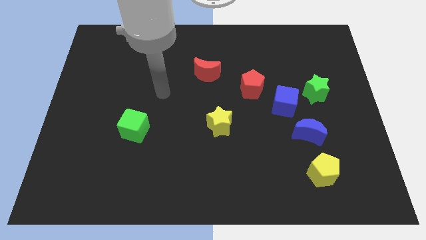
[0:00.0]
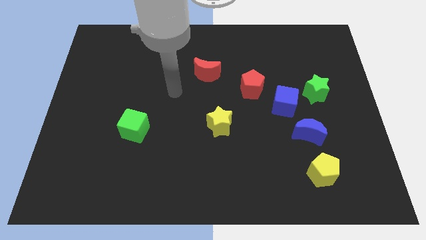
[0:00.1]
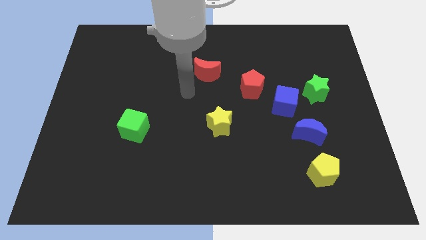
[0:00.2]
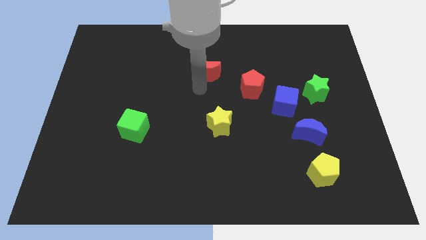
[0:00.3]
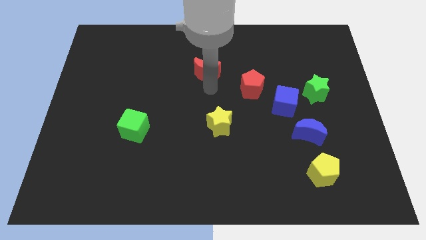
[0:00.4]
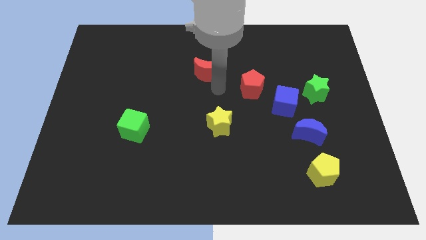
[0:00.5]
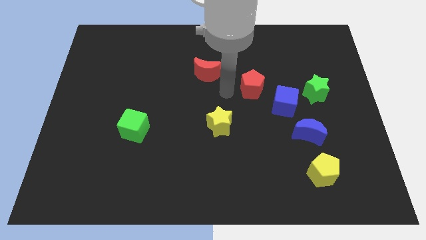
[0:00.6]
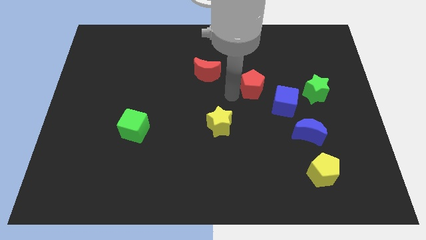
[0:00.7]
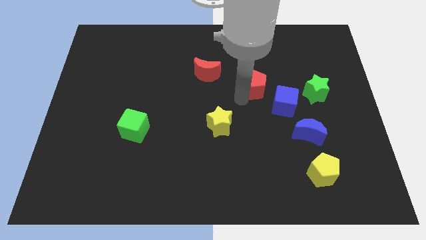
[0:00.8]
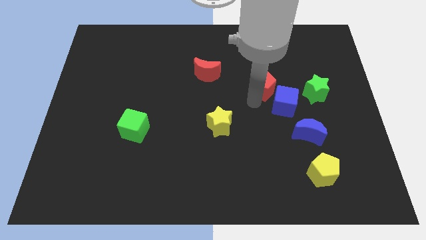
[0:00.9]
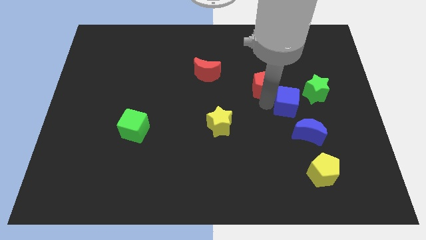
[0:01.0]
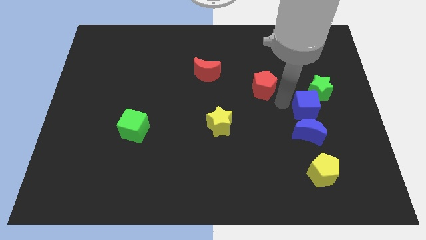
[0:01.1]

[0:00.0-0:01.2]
pull the red pentagon apart from the blue cube

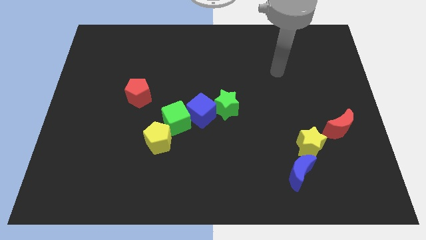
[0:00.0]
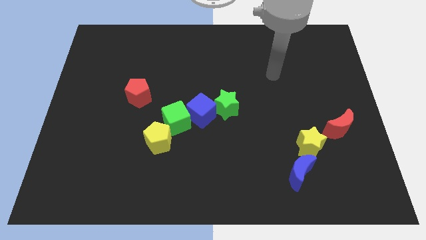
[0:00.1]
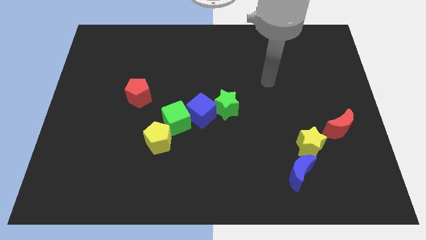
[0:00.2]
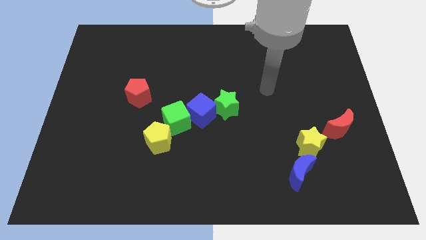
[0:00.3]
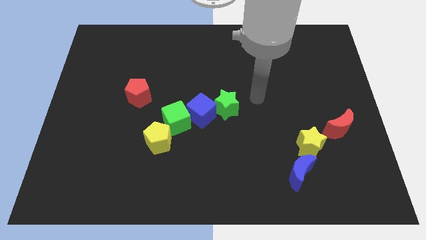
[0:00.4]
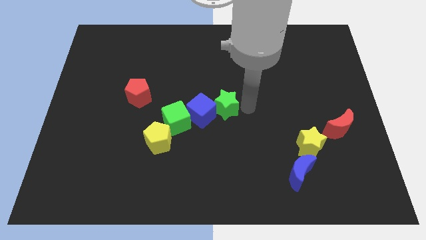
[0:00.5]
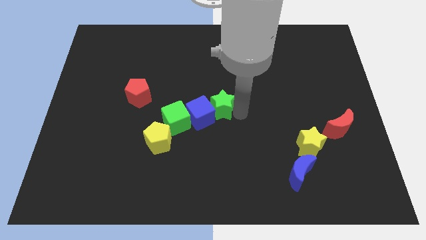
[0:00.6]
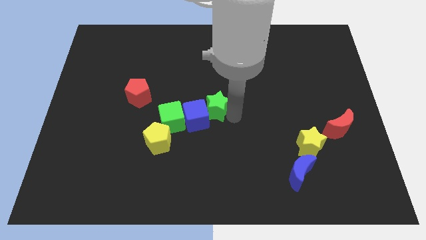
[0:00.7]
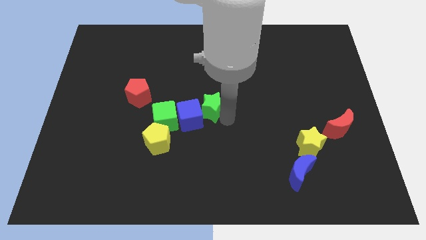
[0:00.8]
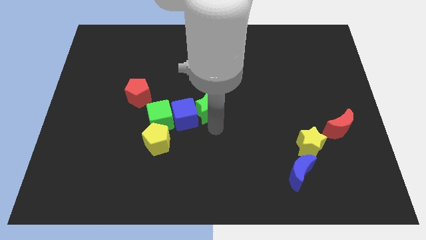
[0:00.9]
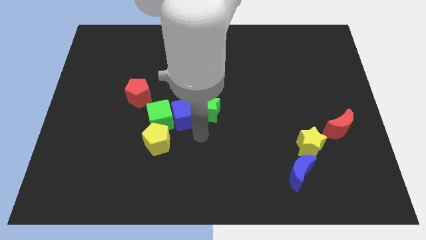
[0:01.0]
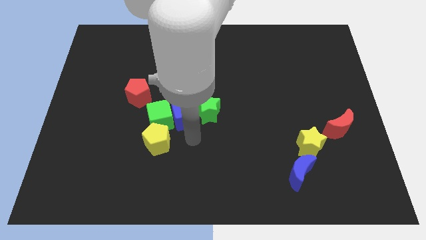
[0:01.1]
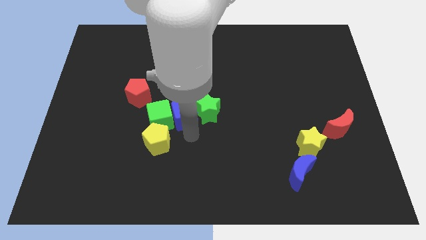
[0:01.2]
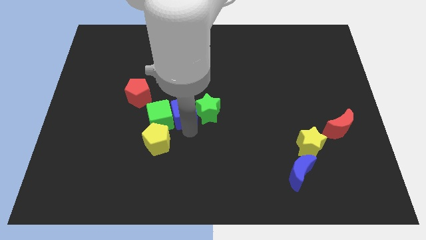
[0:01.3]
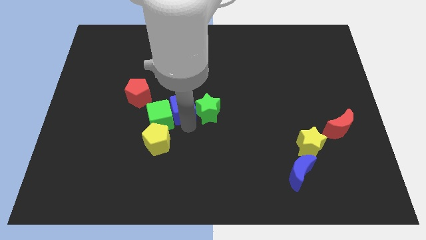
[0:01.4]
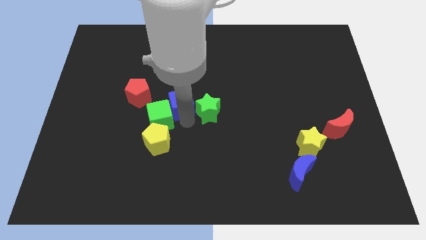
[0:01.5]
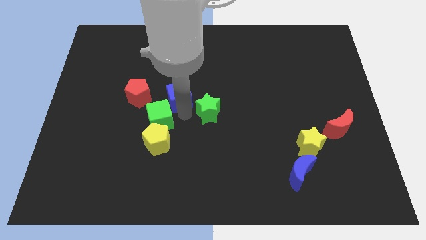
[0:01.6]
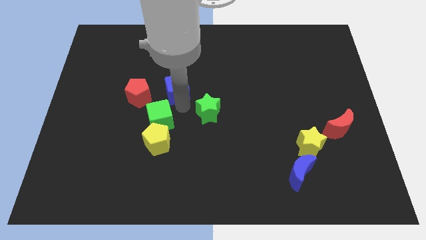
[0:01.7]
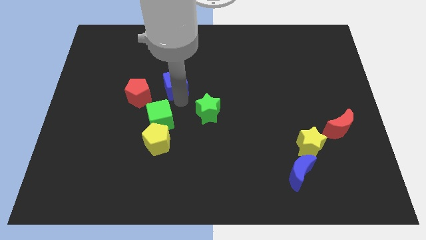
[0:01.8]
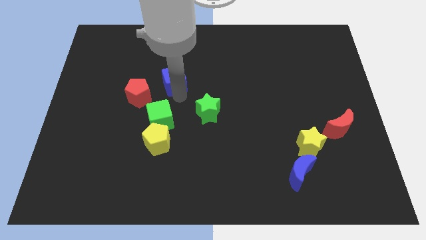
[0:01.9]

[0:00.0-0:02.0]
separate the blue cube from the green cube and green star

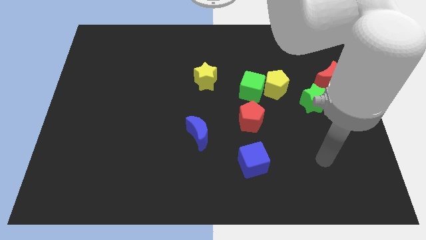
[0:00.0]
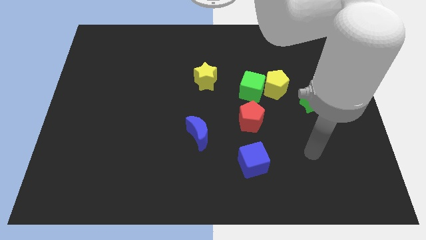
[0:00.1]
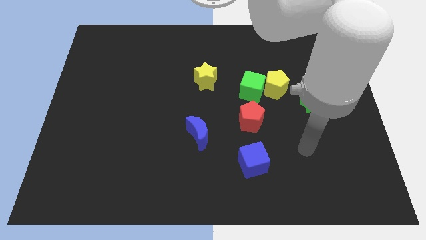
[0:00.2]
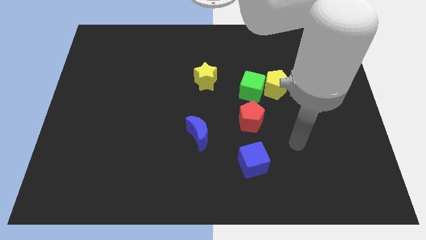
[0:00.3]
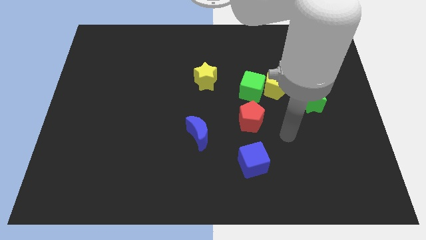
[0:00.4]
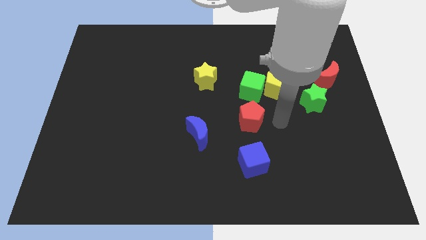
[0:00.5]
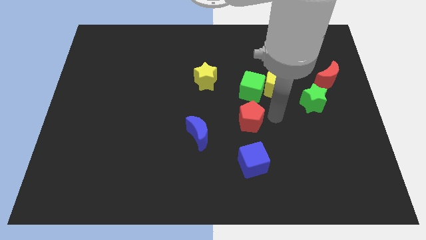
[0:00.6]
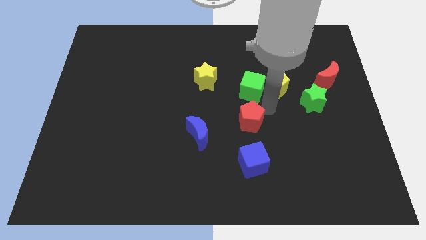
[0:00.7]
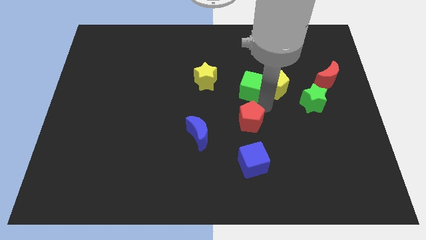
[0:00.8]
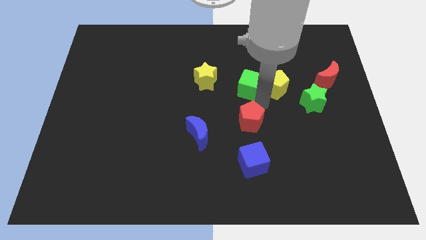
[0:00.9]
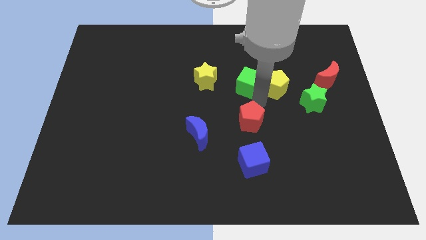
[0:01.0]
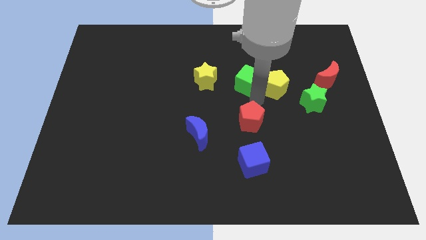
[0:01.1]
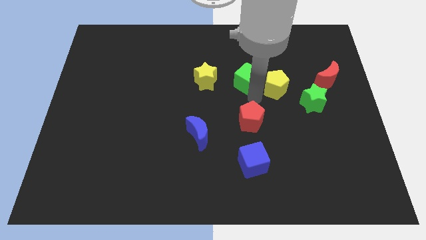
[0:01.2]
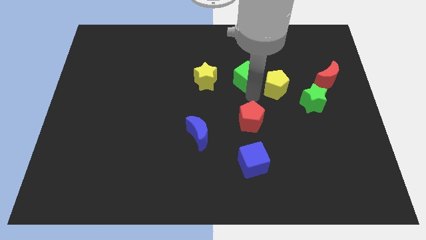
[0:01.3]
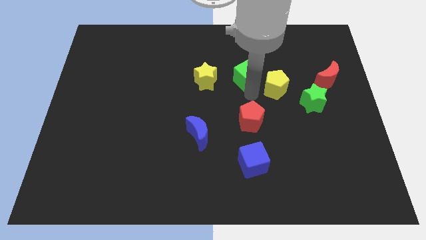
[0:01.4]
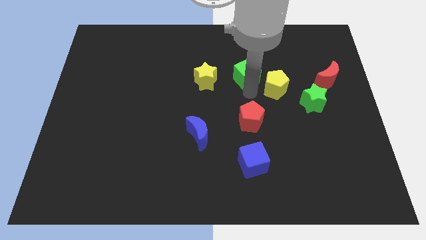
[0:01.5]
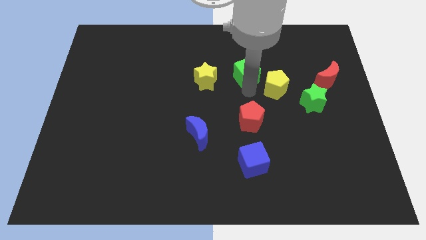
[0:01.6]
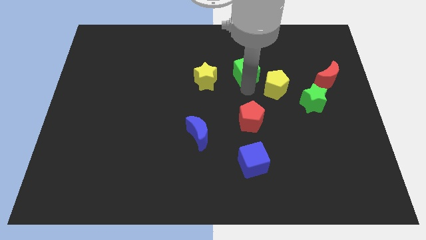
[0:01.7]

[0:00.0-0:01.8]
separate the green cube from the yellow pentagon and red pentagon

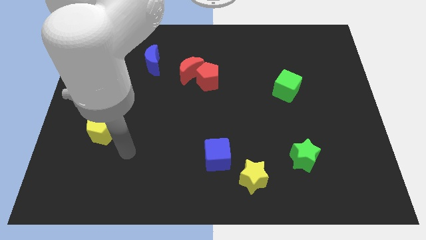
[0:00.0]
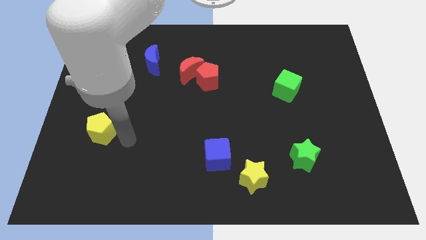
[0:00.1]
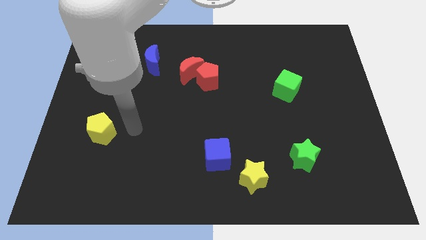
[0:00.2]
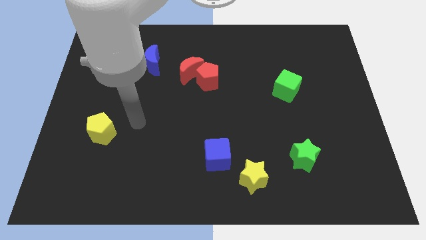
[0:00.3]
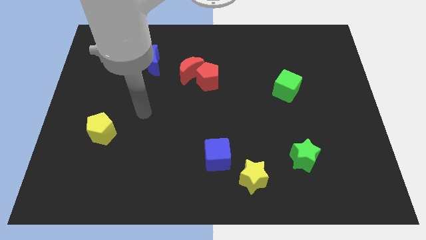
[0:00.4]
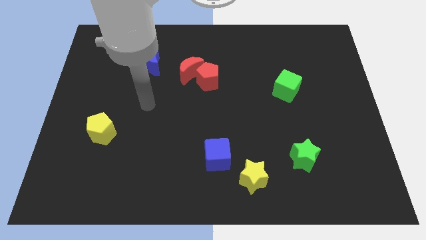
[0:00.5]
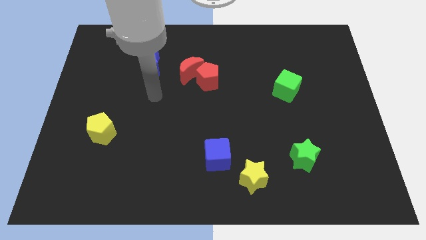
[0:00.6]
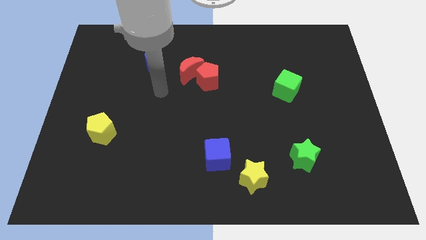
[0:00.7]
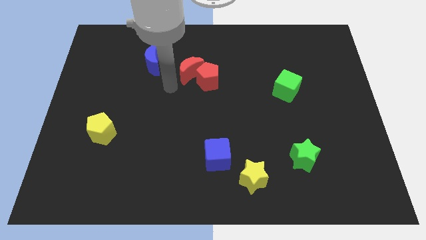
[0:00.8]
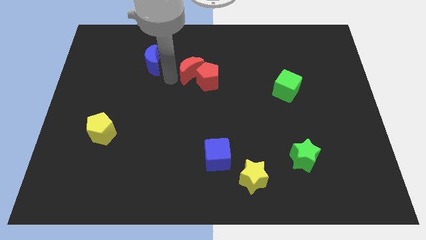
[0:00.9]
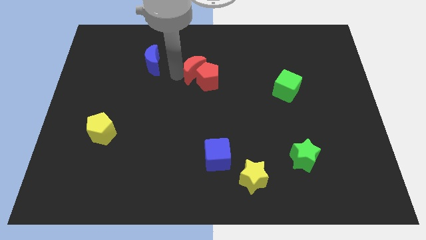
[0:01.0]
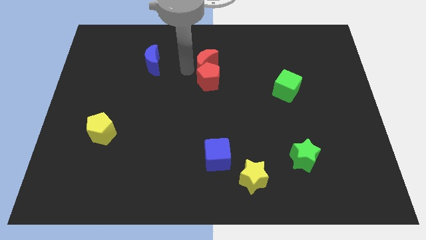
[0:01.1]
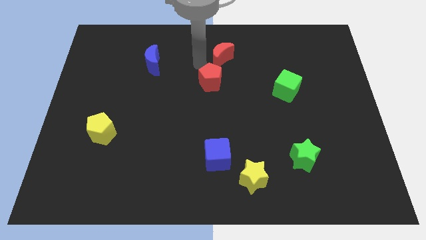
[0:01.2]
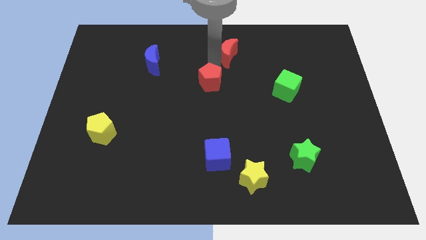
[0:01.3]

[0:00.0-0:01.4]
separate the red pentagon from the red moon

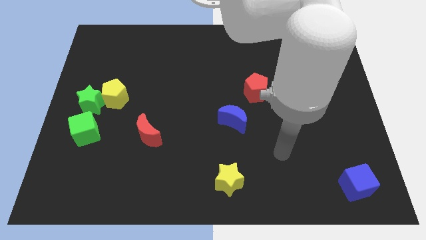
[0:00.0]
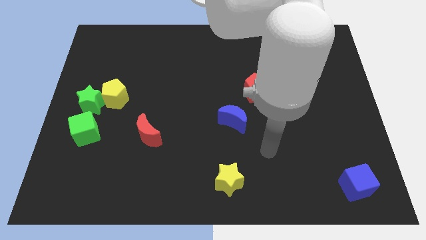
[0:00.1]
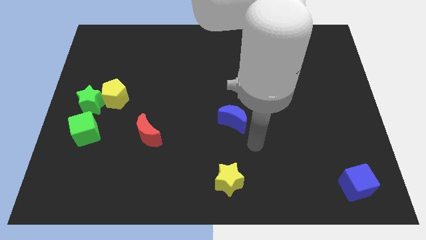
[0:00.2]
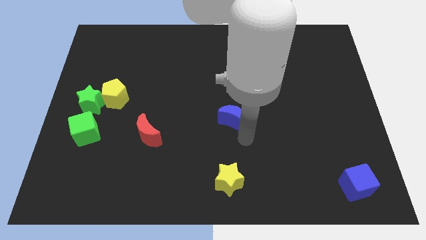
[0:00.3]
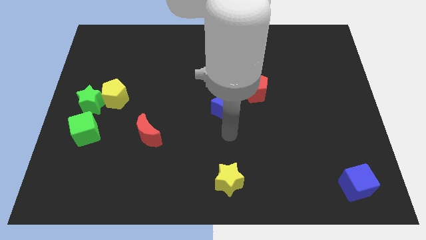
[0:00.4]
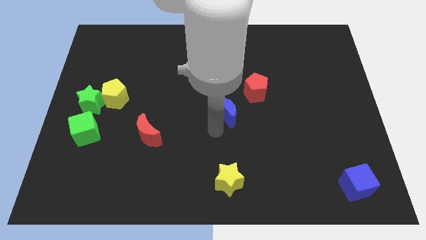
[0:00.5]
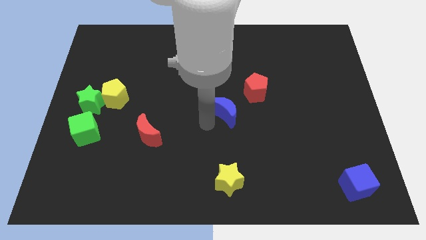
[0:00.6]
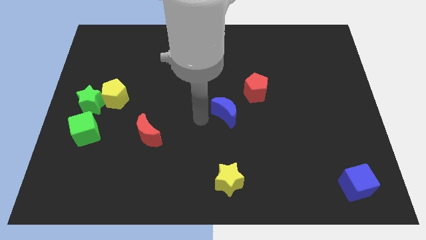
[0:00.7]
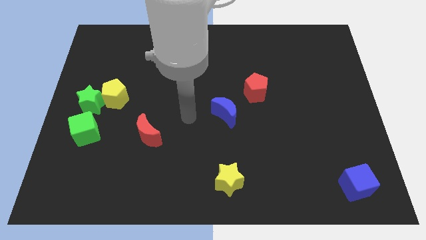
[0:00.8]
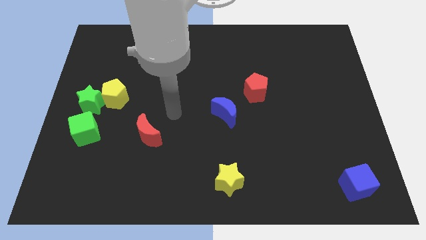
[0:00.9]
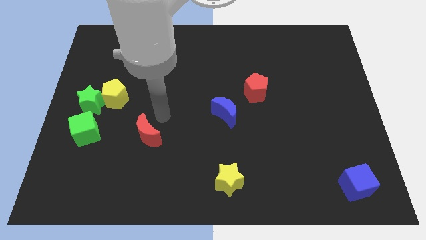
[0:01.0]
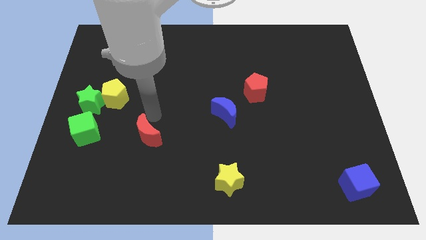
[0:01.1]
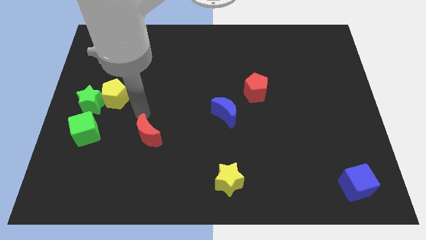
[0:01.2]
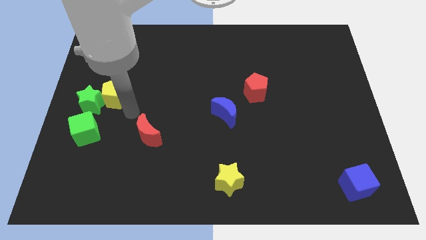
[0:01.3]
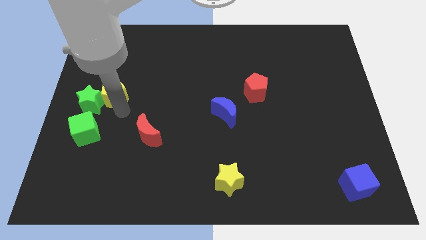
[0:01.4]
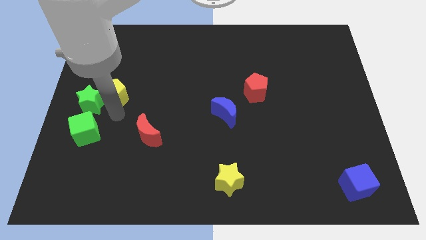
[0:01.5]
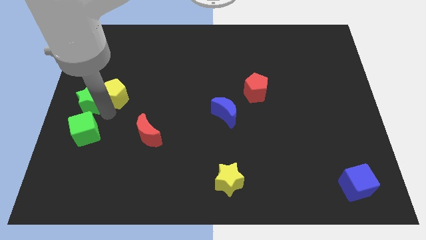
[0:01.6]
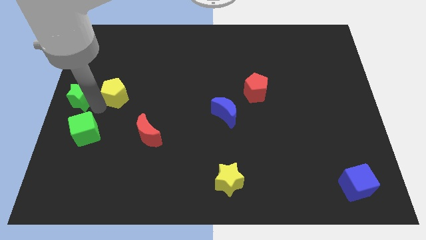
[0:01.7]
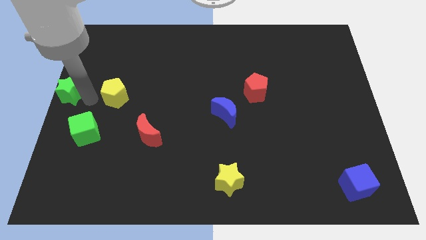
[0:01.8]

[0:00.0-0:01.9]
move the yellow pentagon away from the green star

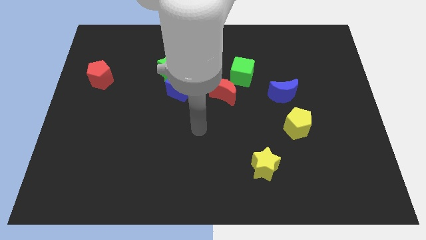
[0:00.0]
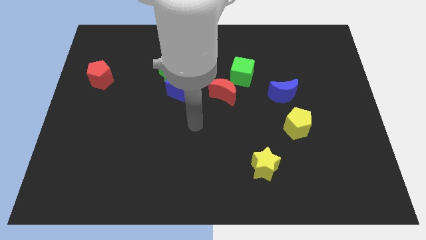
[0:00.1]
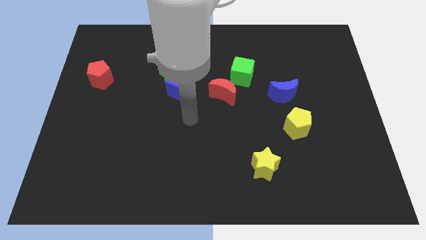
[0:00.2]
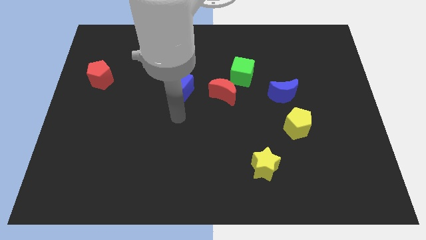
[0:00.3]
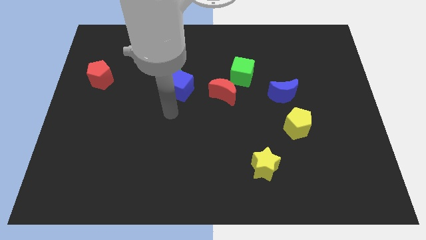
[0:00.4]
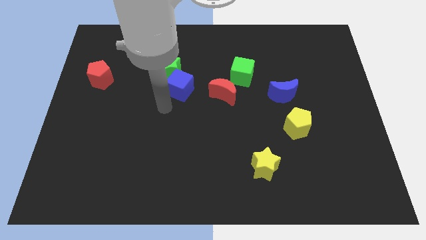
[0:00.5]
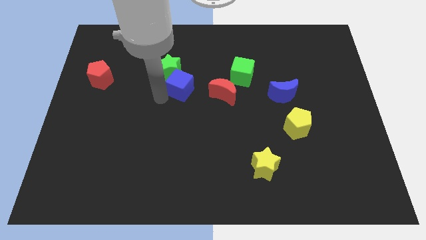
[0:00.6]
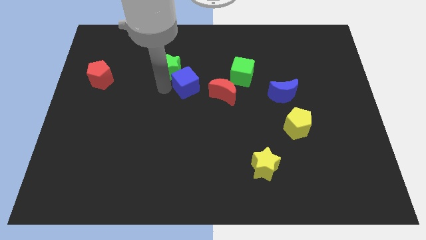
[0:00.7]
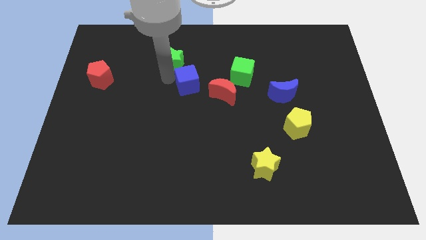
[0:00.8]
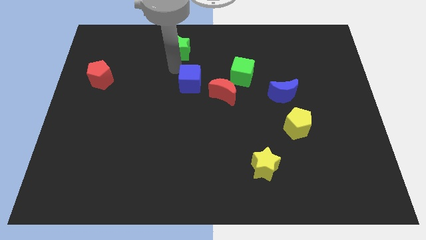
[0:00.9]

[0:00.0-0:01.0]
pull the blue cube apart from the green star

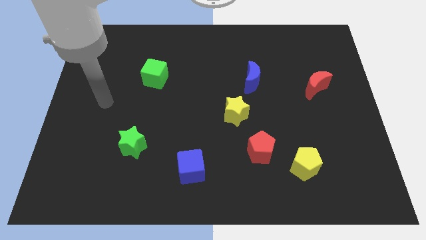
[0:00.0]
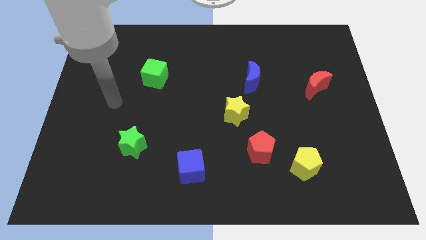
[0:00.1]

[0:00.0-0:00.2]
pull the red pentagon apart from the yellow pentagon
